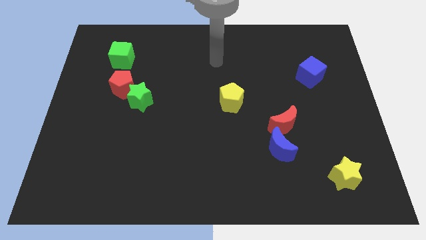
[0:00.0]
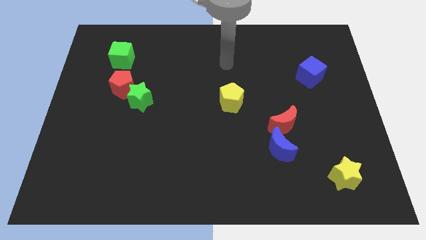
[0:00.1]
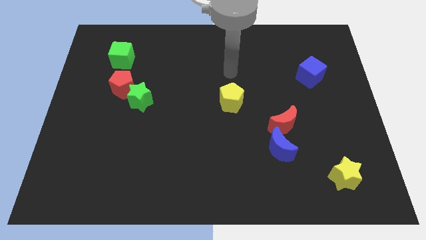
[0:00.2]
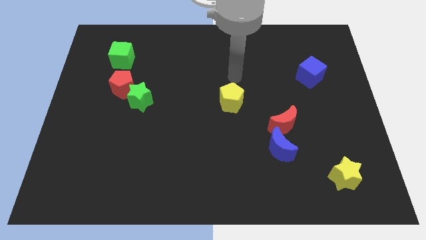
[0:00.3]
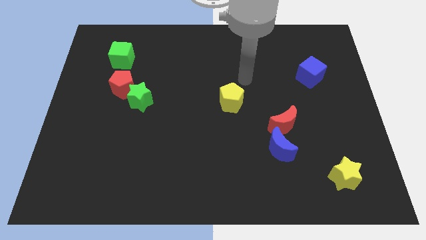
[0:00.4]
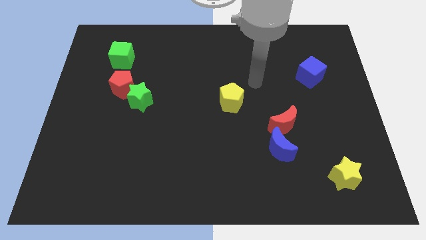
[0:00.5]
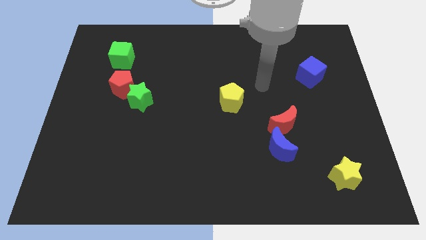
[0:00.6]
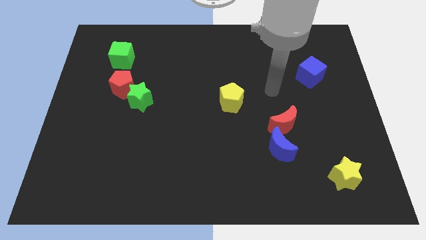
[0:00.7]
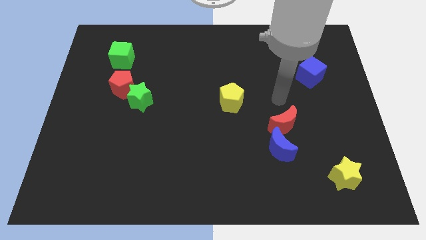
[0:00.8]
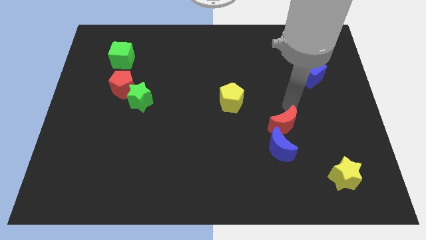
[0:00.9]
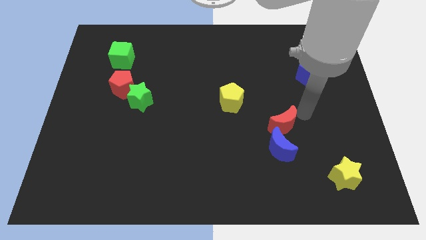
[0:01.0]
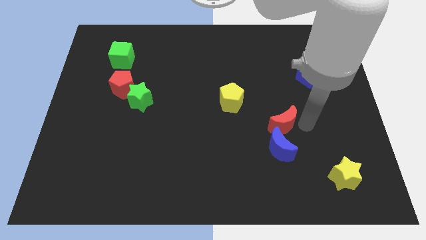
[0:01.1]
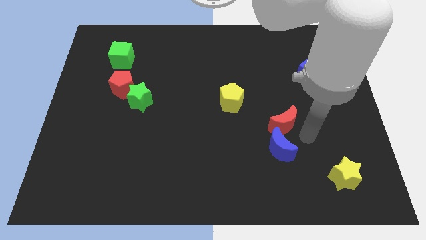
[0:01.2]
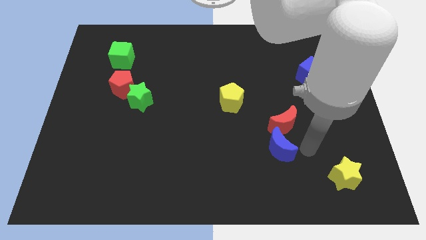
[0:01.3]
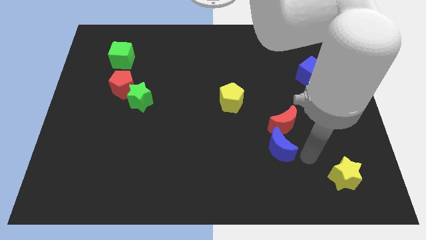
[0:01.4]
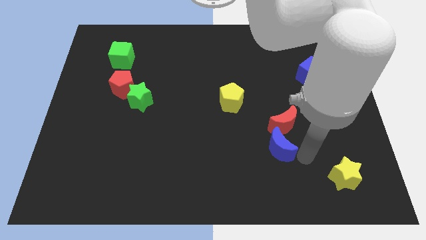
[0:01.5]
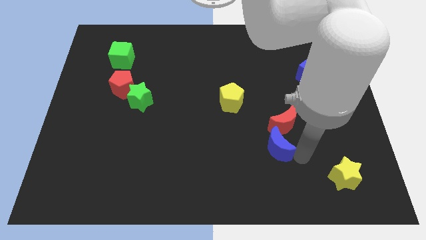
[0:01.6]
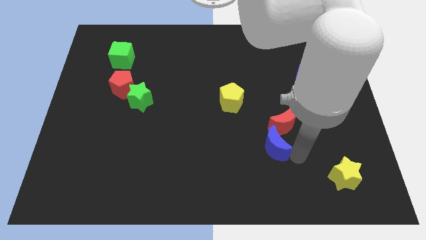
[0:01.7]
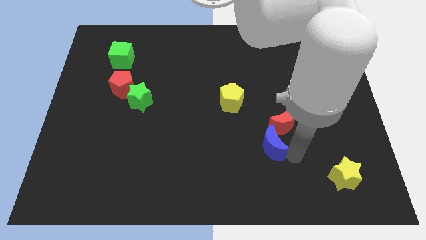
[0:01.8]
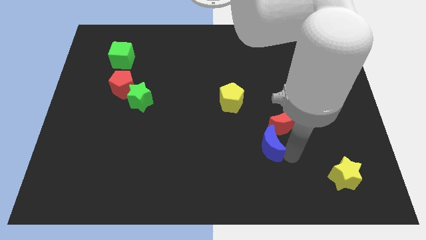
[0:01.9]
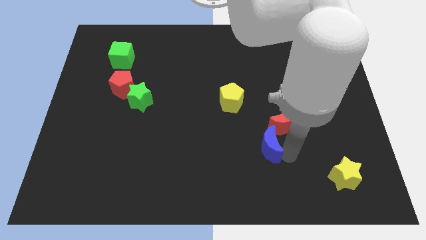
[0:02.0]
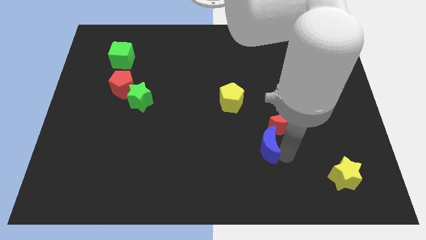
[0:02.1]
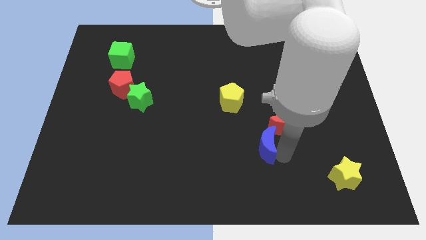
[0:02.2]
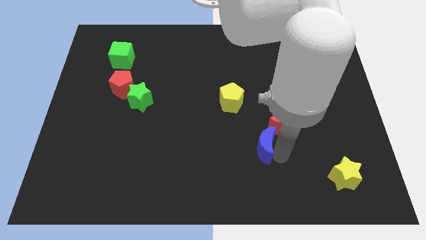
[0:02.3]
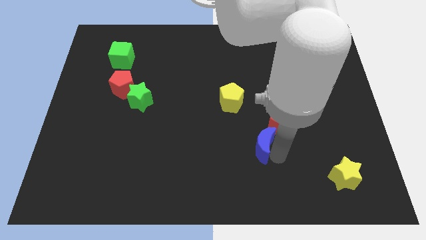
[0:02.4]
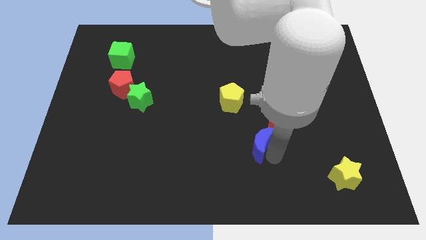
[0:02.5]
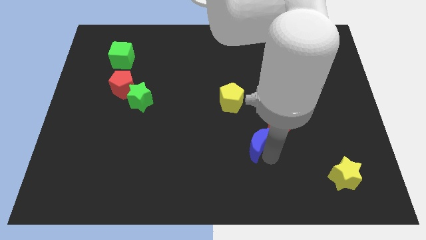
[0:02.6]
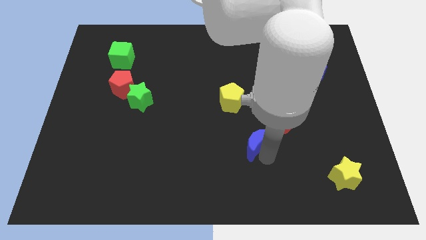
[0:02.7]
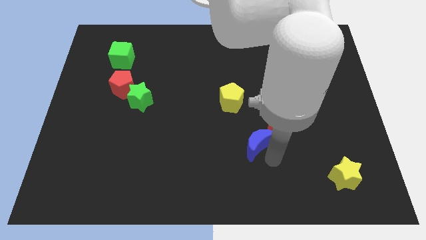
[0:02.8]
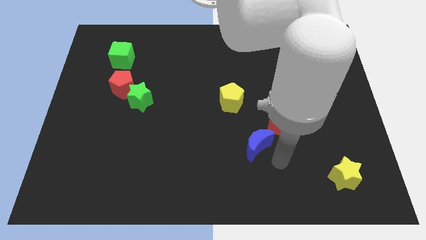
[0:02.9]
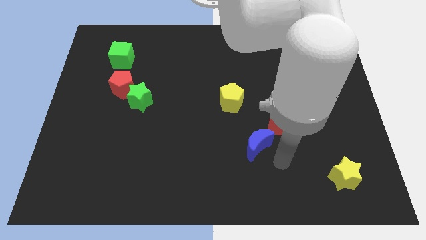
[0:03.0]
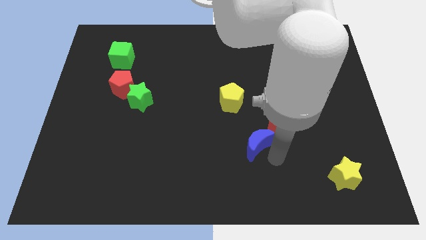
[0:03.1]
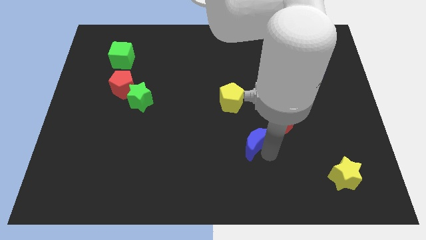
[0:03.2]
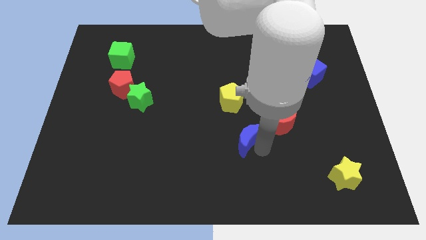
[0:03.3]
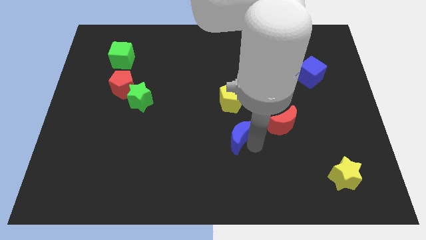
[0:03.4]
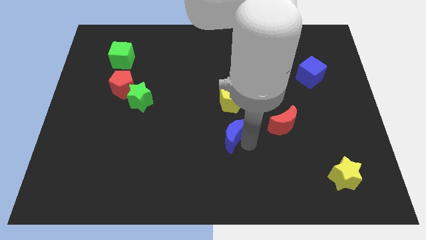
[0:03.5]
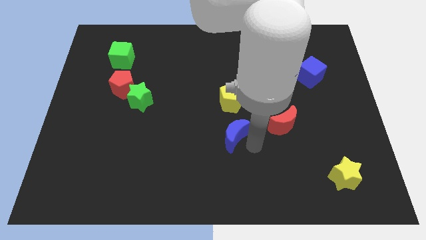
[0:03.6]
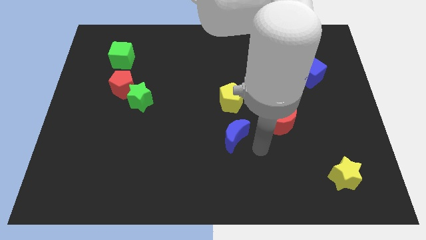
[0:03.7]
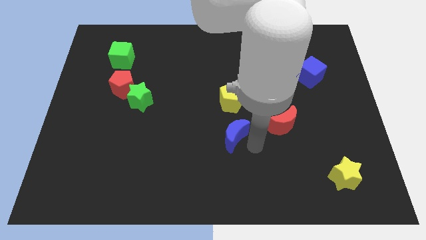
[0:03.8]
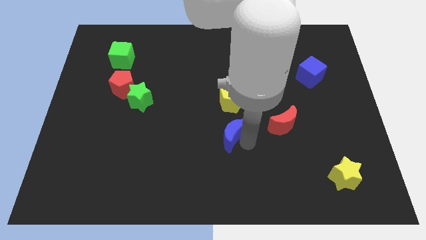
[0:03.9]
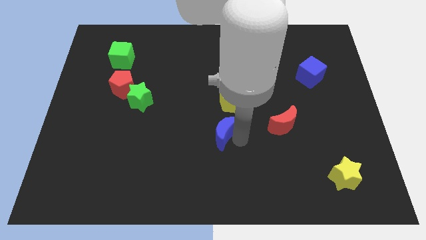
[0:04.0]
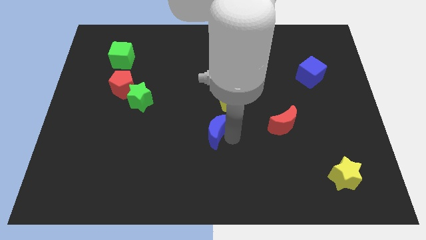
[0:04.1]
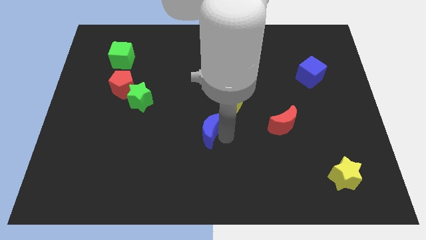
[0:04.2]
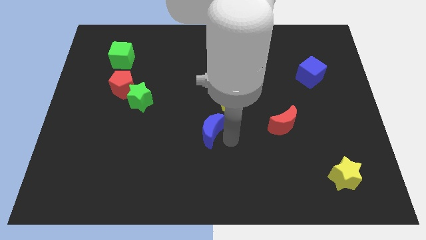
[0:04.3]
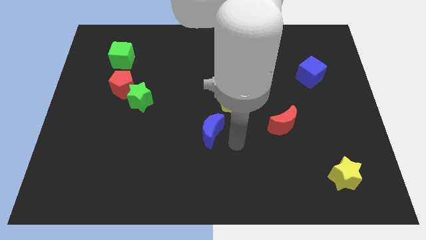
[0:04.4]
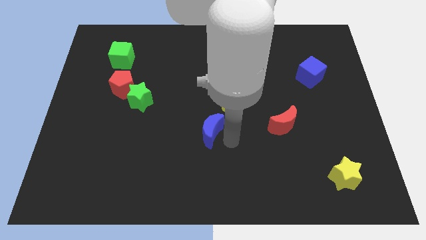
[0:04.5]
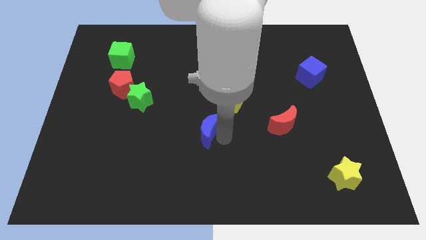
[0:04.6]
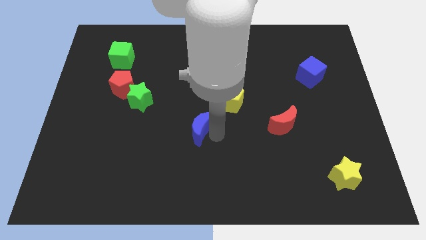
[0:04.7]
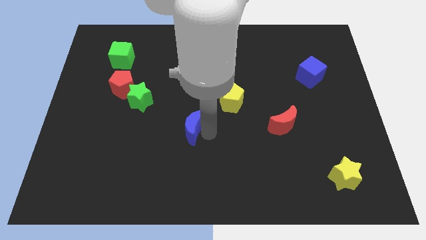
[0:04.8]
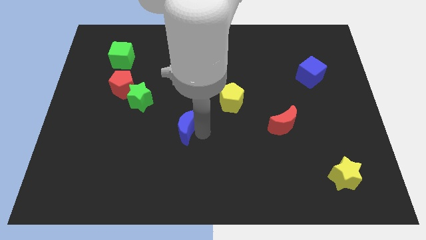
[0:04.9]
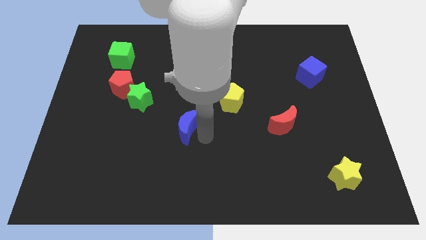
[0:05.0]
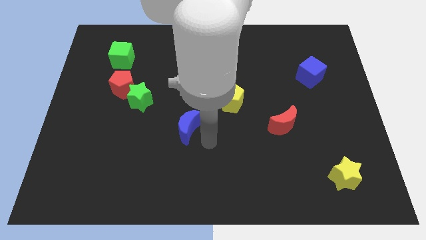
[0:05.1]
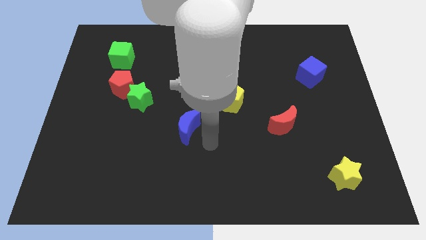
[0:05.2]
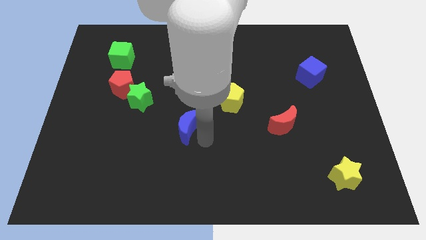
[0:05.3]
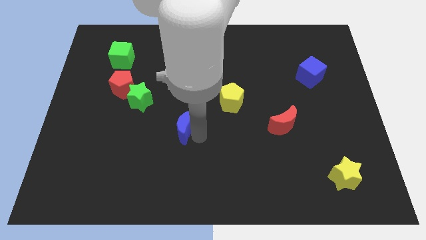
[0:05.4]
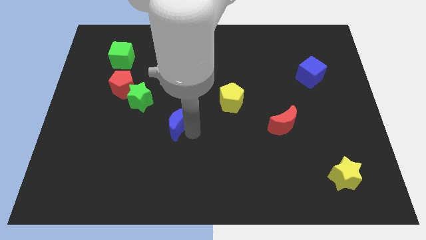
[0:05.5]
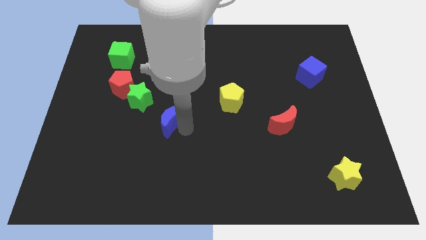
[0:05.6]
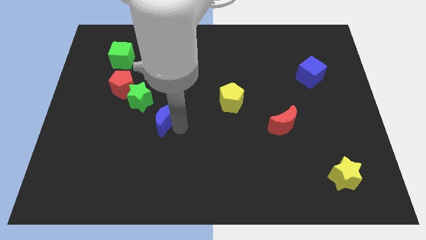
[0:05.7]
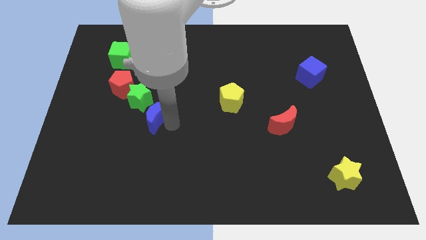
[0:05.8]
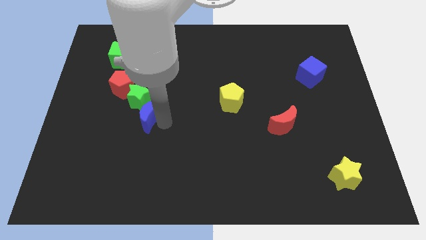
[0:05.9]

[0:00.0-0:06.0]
push the blue moon to the bottom right side of the red pentagon
